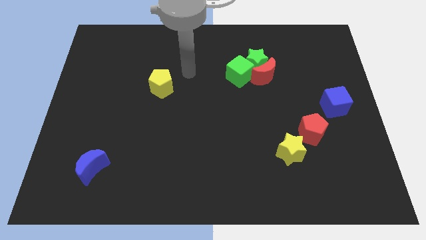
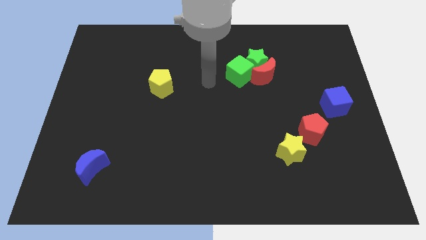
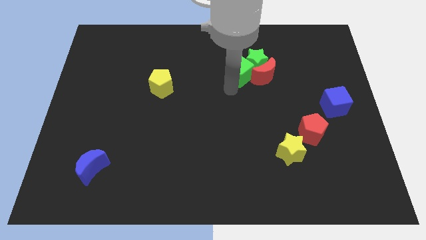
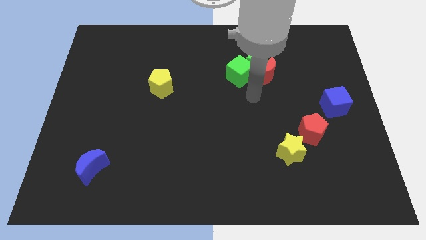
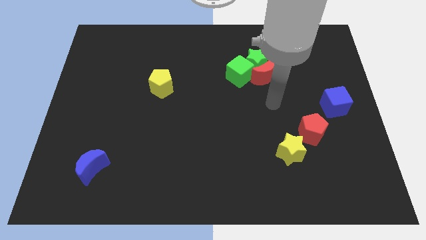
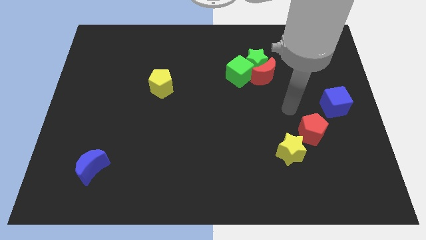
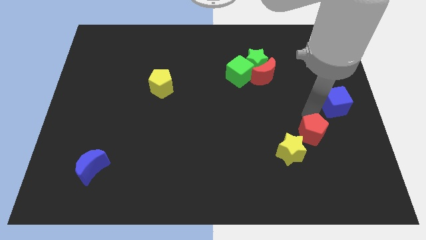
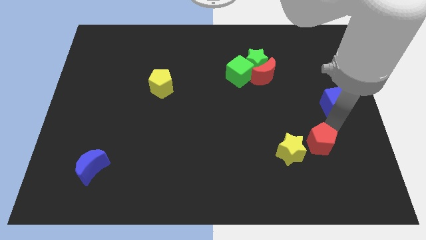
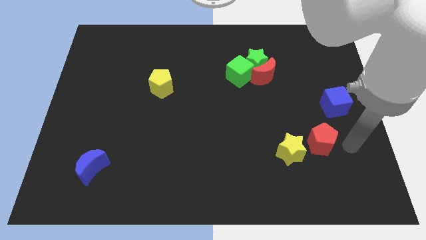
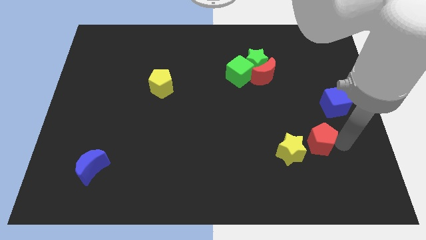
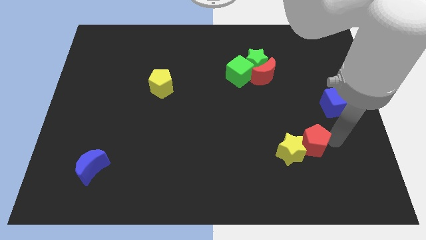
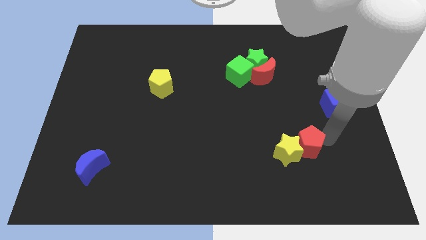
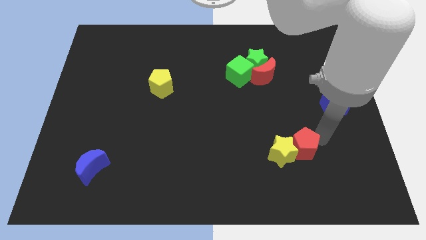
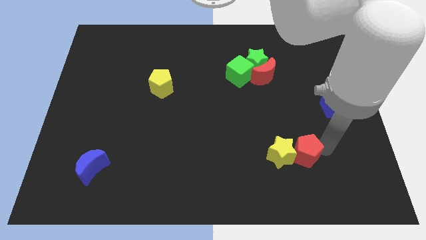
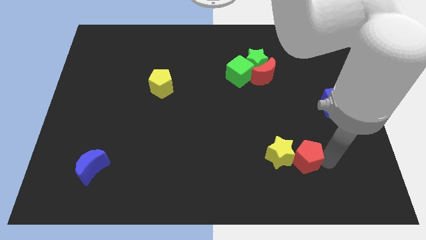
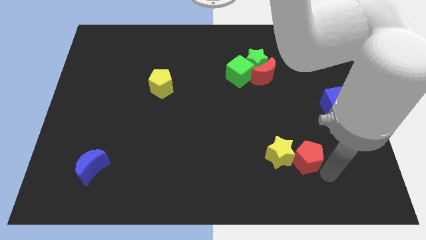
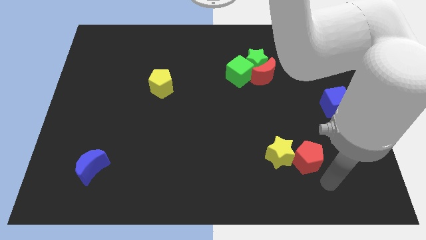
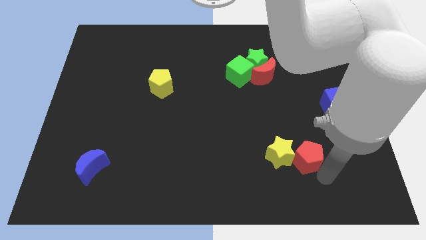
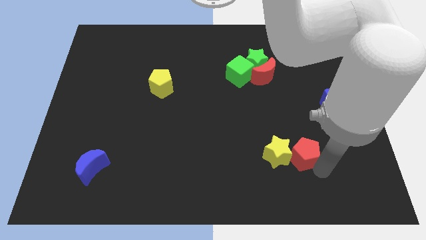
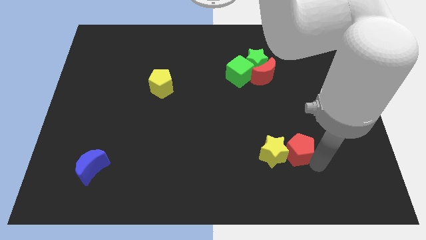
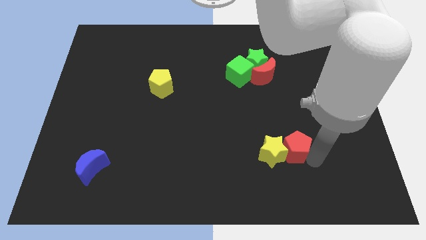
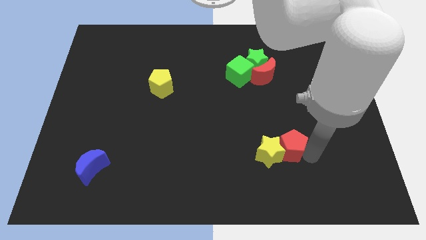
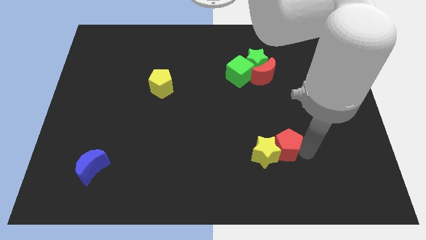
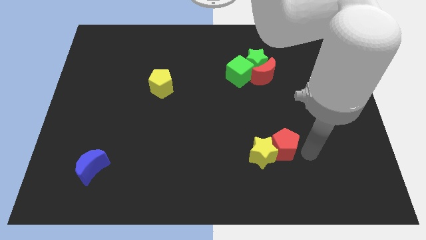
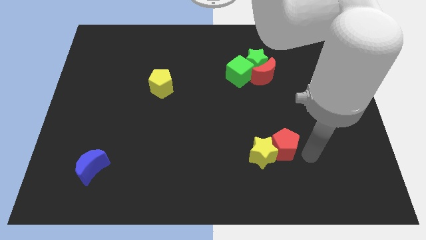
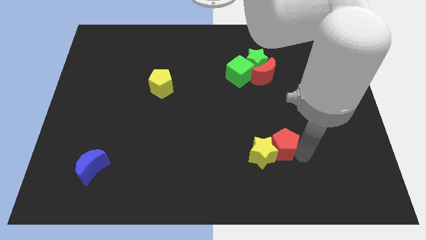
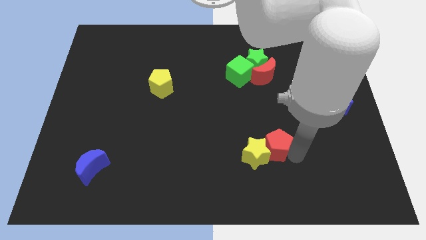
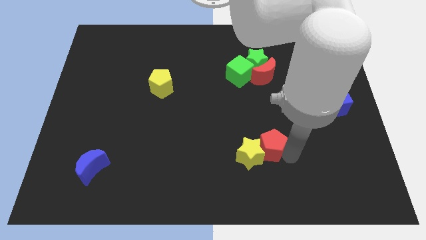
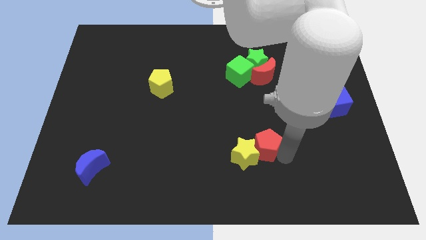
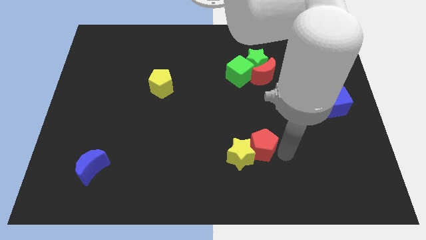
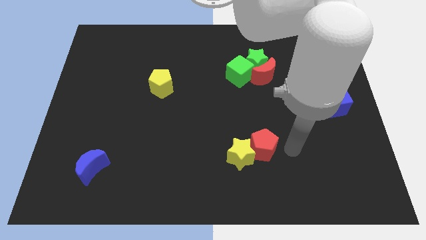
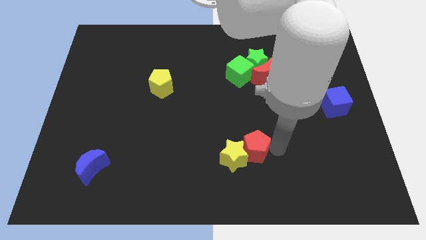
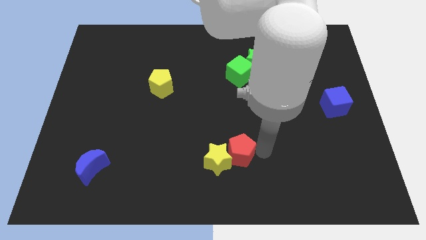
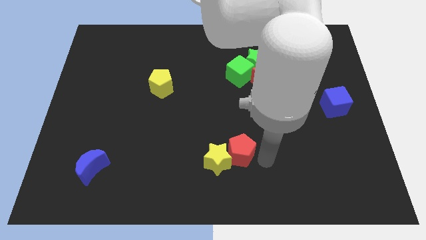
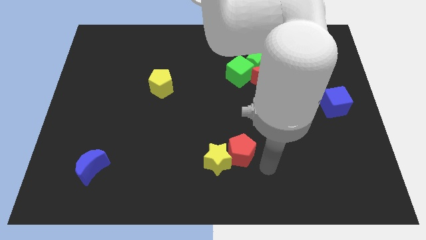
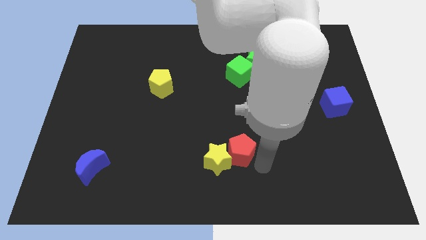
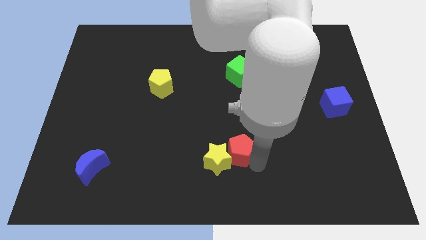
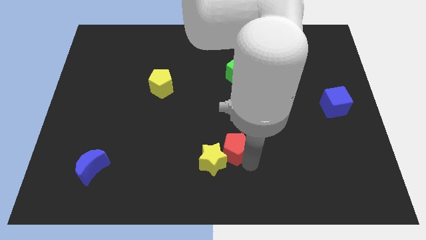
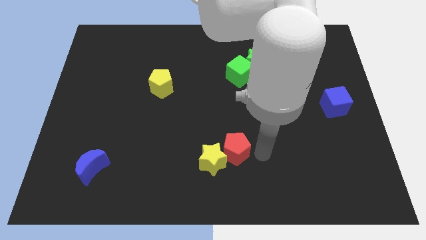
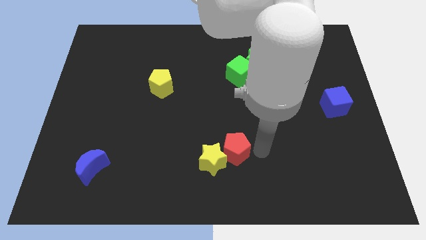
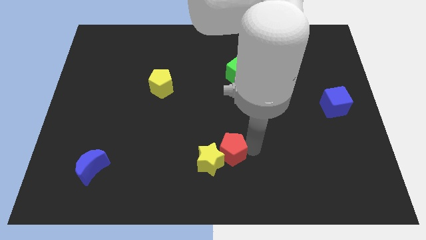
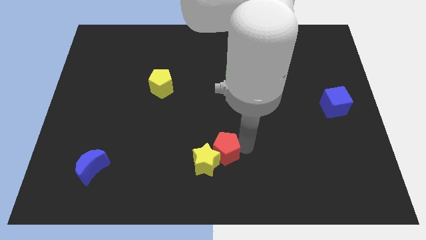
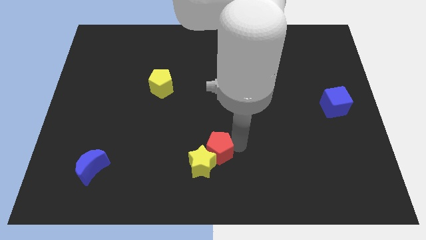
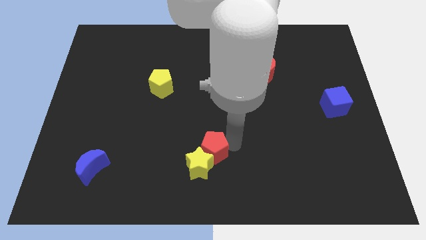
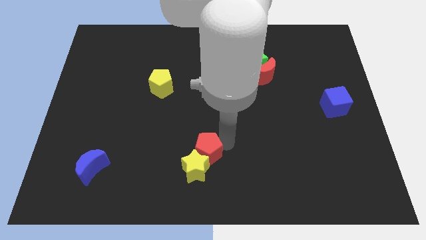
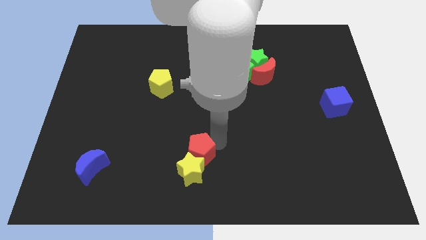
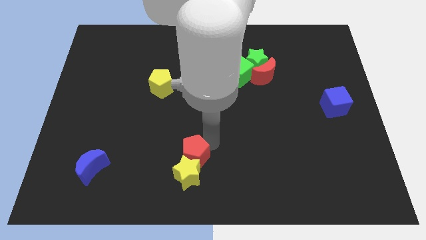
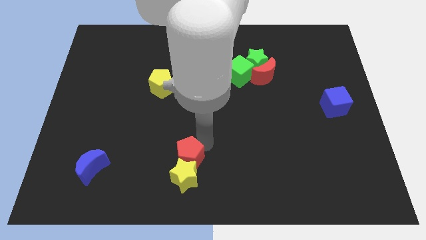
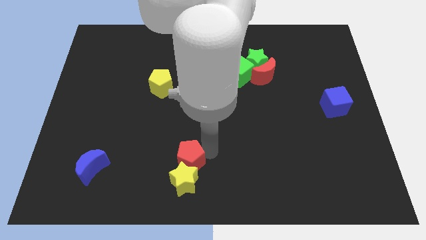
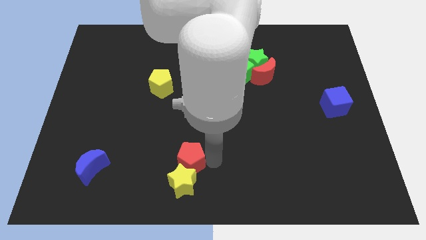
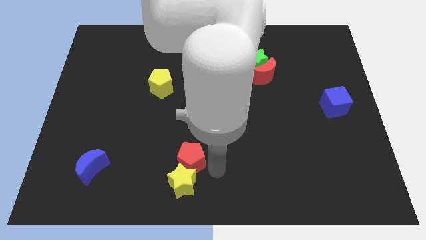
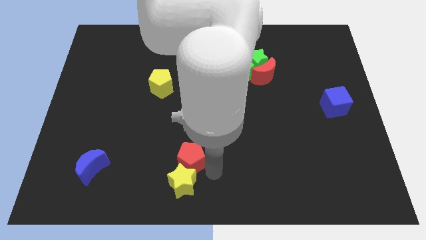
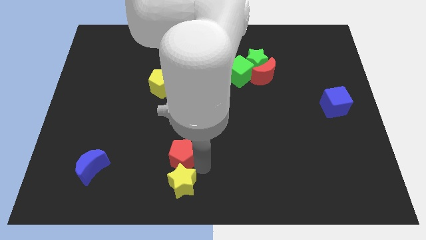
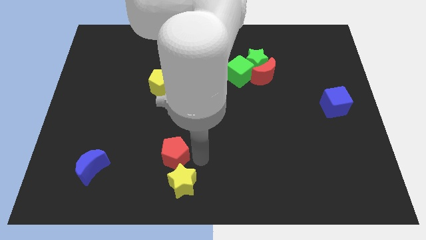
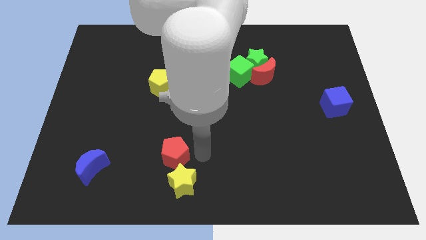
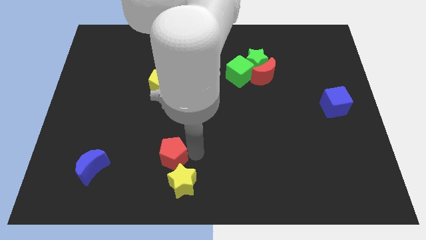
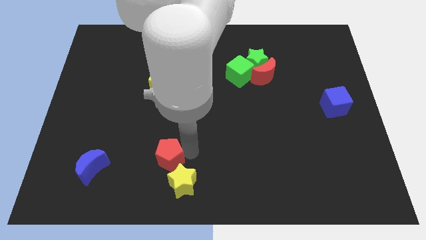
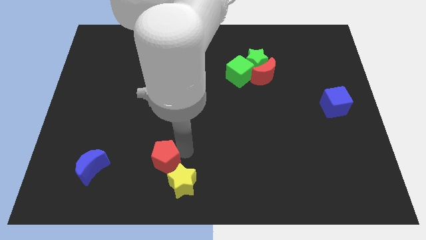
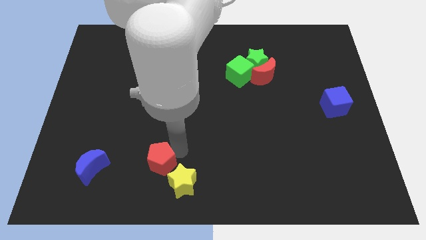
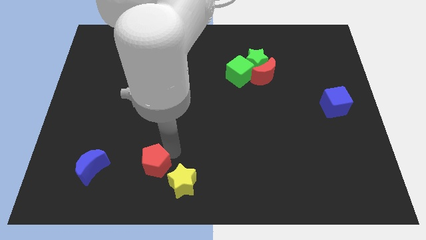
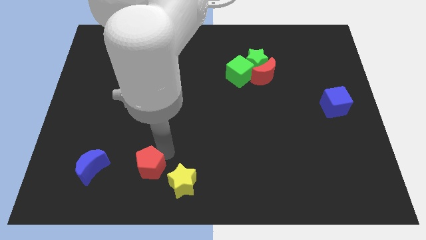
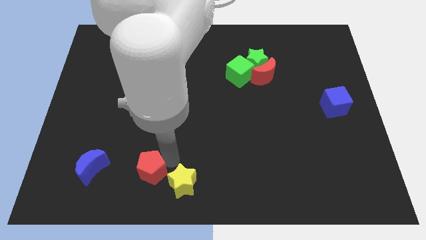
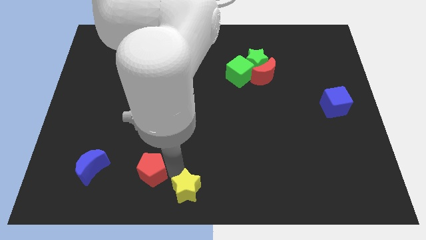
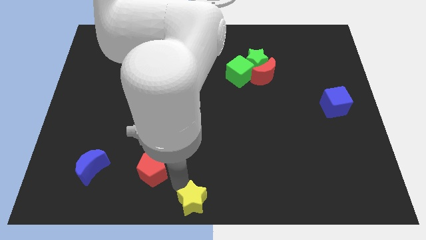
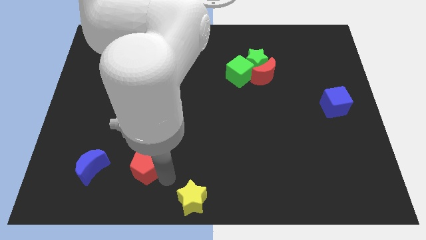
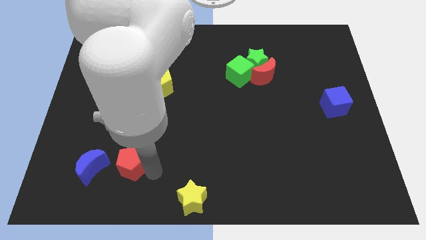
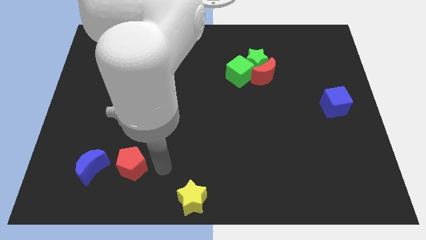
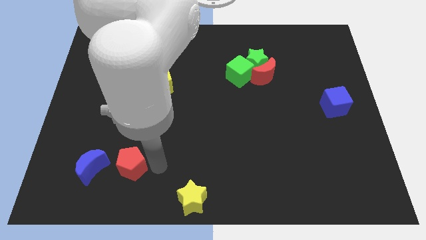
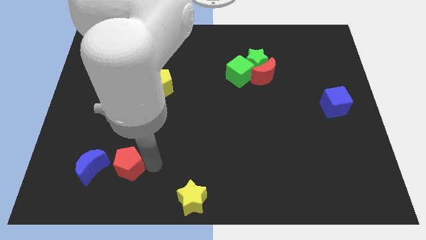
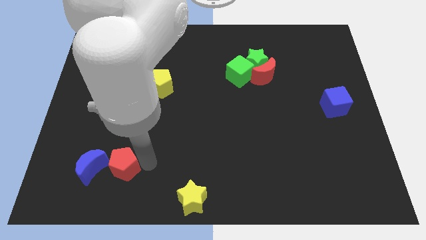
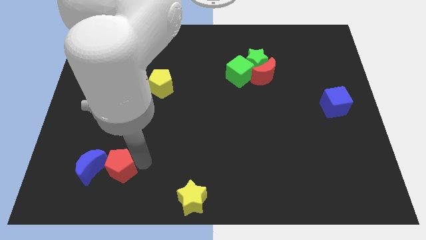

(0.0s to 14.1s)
move the red pentagon to the blue moon
